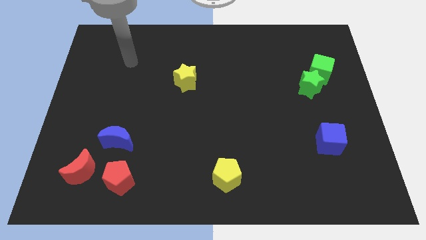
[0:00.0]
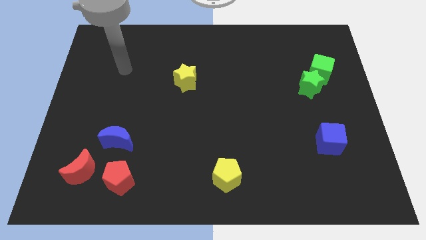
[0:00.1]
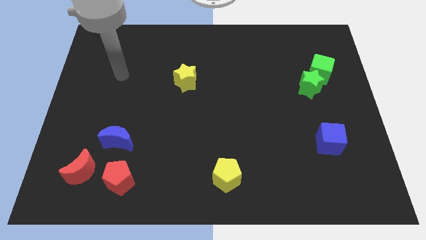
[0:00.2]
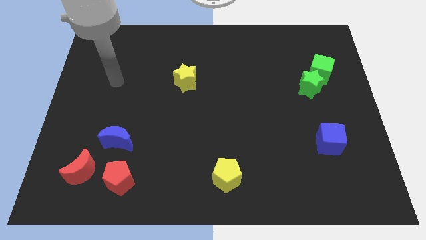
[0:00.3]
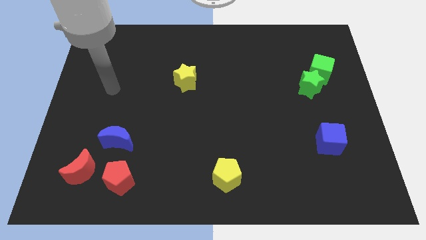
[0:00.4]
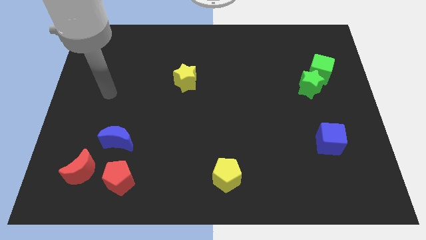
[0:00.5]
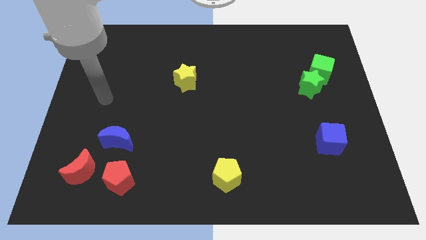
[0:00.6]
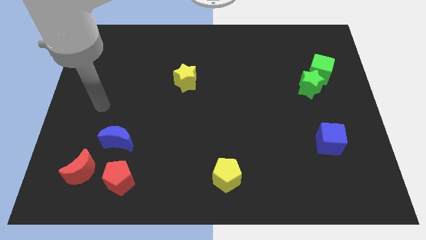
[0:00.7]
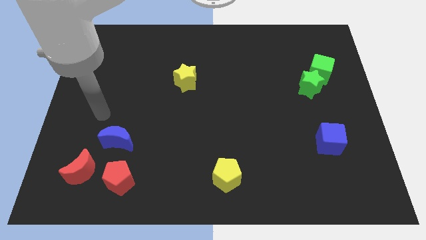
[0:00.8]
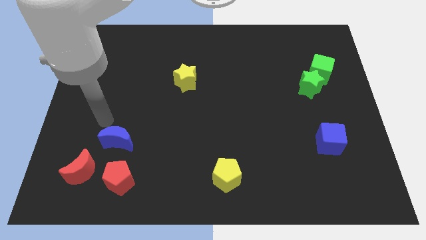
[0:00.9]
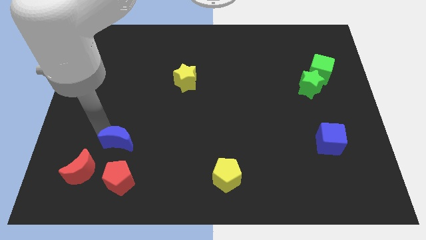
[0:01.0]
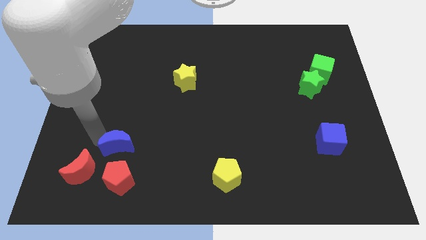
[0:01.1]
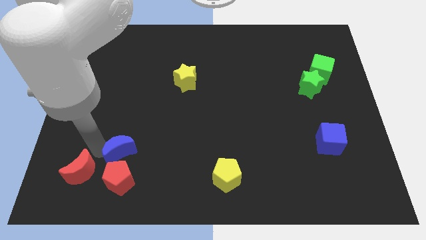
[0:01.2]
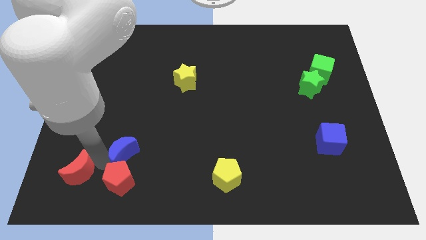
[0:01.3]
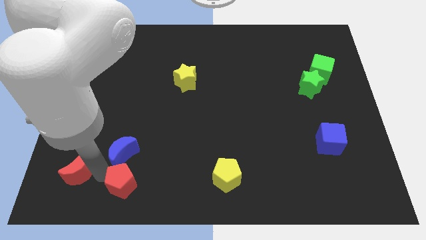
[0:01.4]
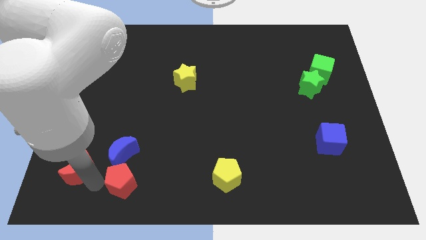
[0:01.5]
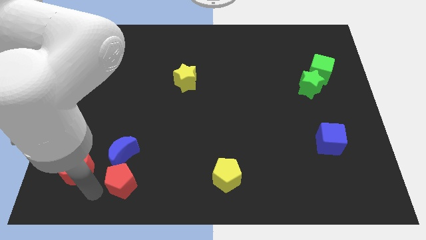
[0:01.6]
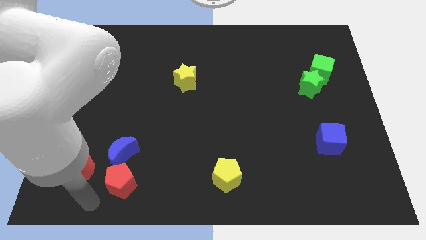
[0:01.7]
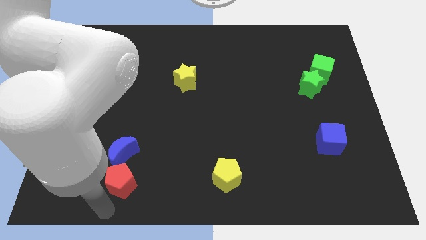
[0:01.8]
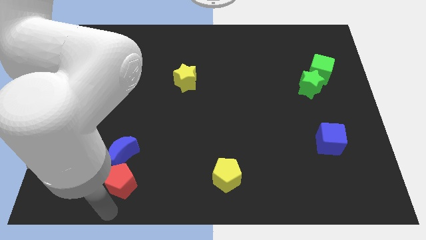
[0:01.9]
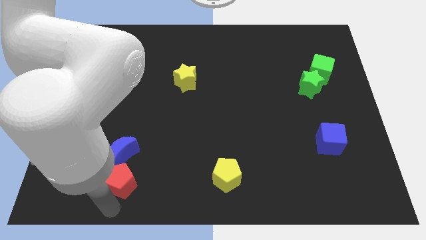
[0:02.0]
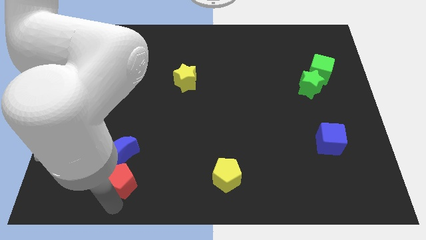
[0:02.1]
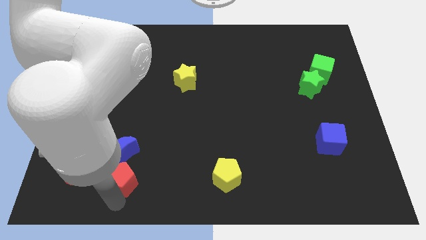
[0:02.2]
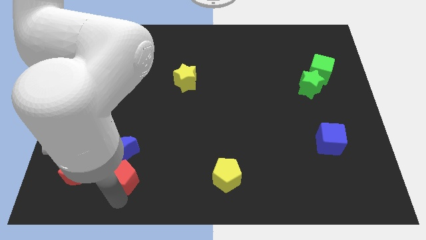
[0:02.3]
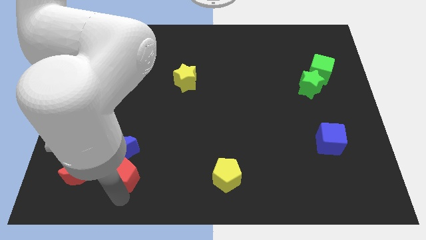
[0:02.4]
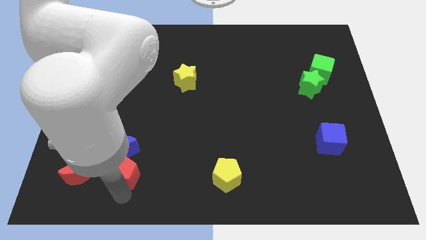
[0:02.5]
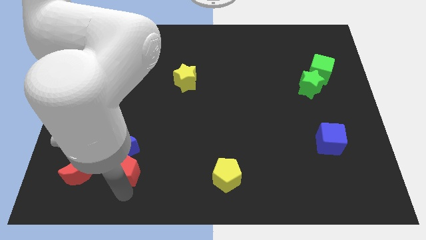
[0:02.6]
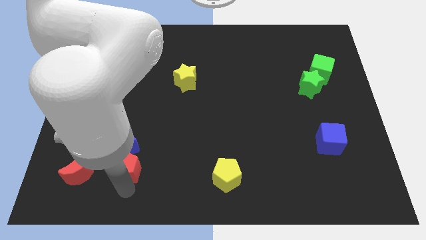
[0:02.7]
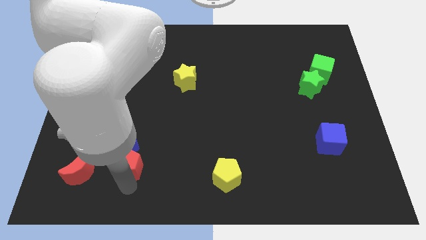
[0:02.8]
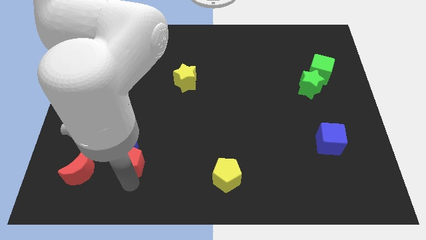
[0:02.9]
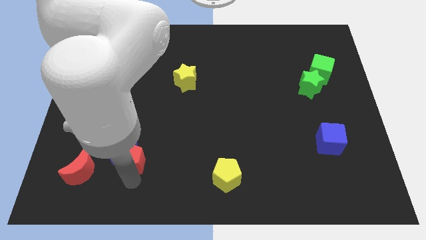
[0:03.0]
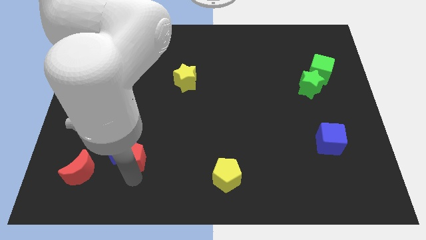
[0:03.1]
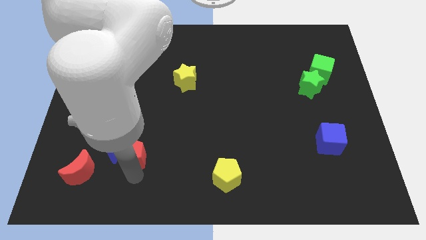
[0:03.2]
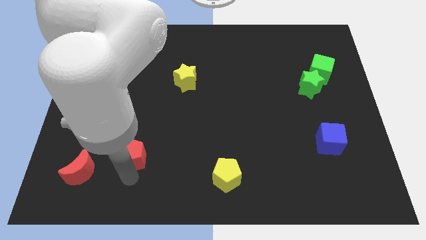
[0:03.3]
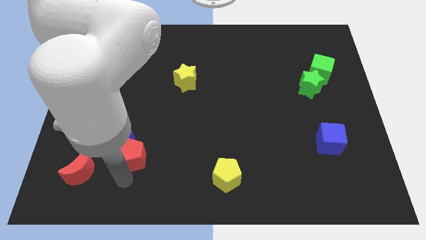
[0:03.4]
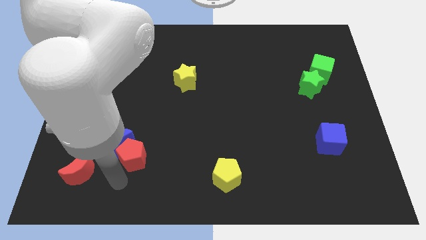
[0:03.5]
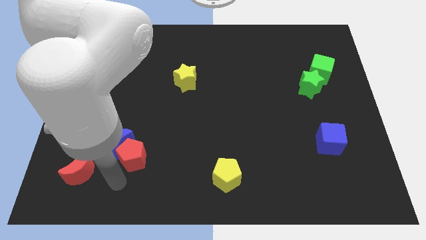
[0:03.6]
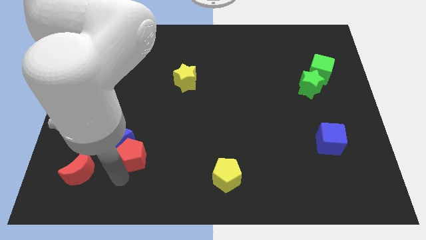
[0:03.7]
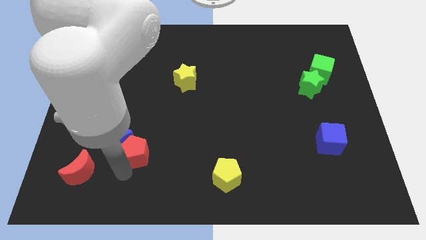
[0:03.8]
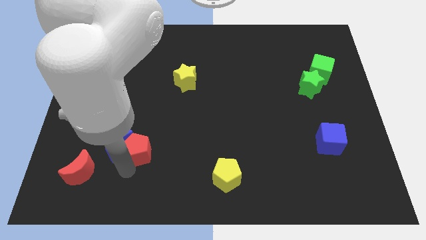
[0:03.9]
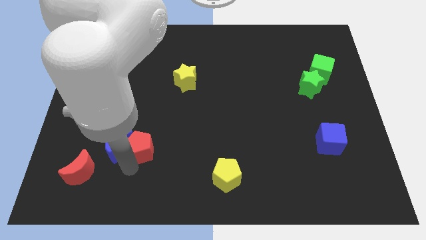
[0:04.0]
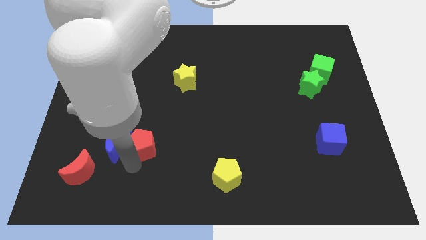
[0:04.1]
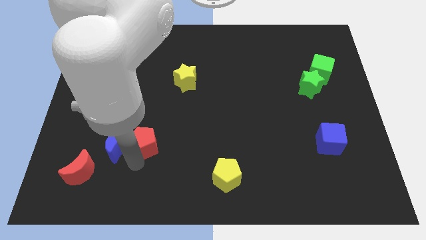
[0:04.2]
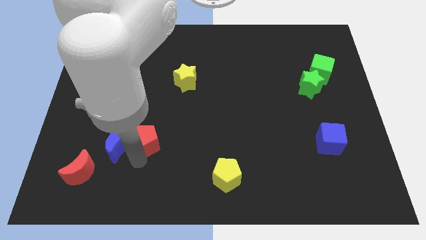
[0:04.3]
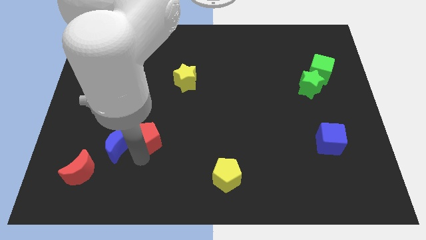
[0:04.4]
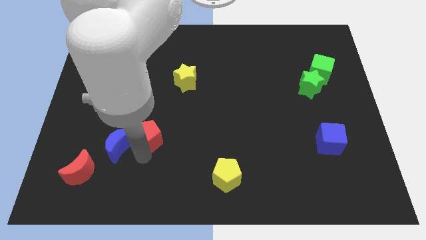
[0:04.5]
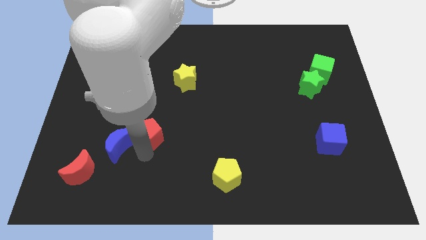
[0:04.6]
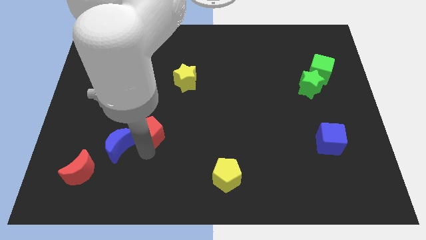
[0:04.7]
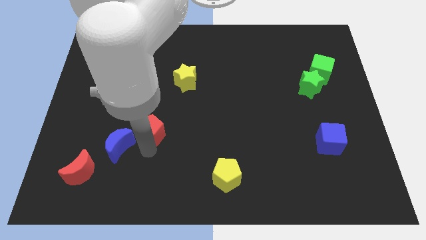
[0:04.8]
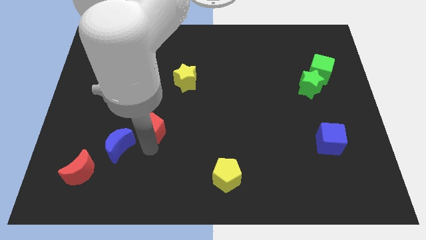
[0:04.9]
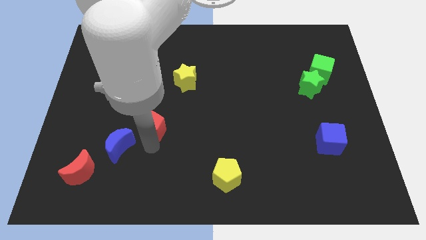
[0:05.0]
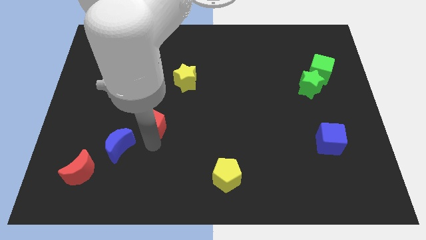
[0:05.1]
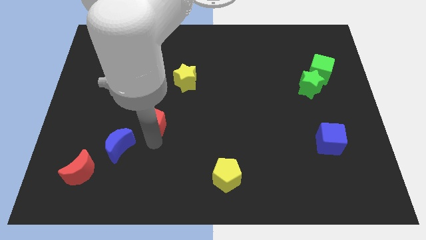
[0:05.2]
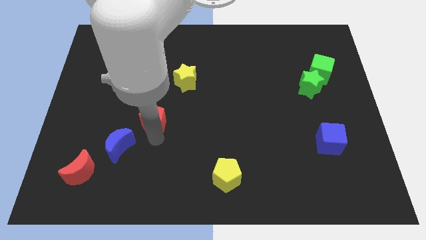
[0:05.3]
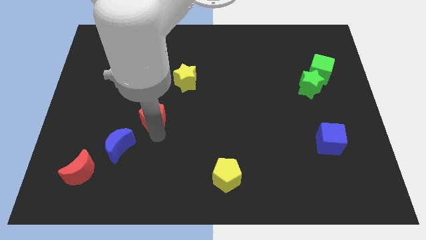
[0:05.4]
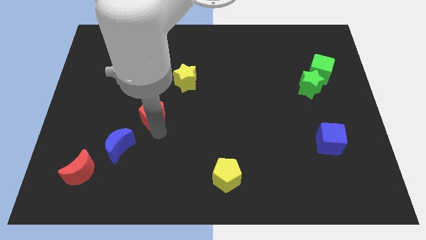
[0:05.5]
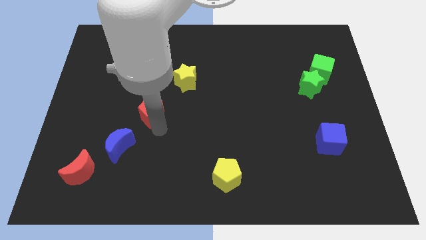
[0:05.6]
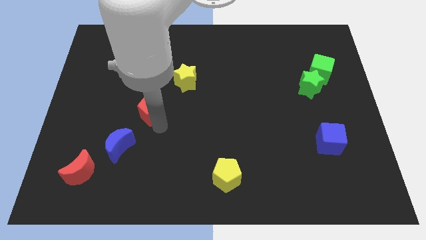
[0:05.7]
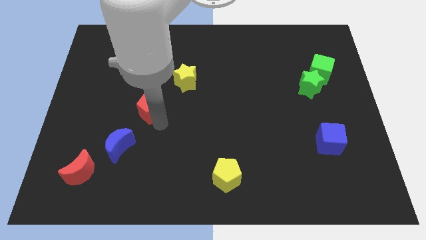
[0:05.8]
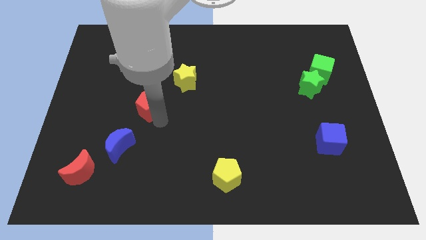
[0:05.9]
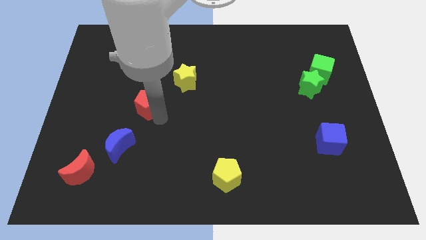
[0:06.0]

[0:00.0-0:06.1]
move the red pentagon above the blue moon

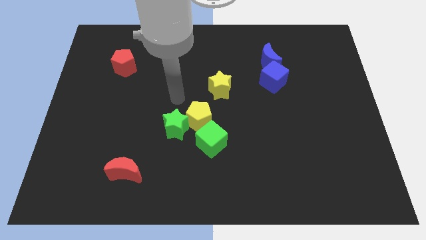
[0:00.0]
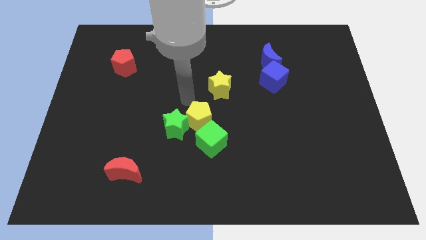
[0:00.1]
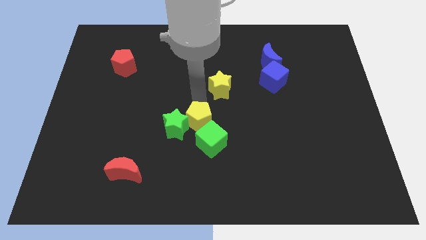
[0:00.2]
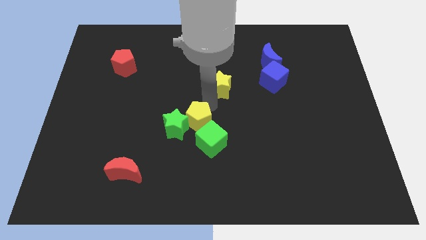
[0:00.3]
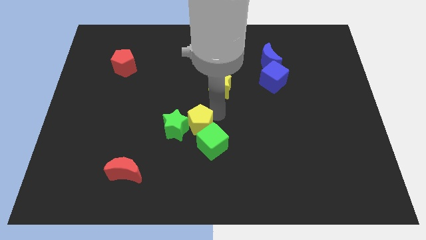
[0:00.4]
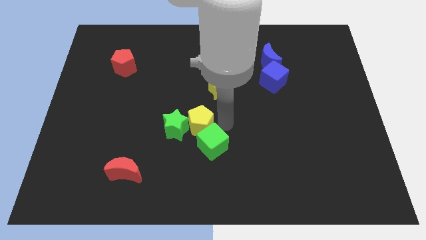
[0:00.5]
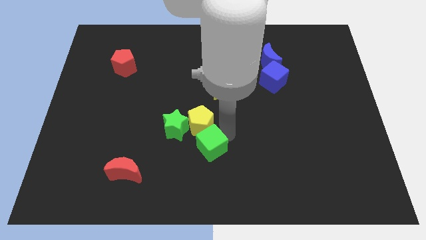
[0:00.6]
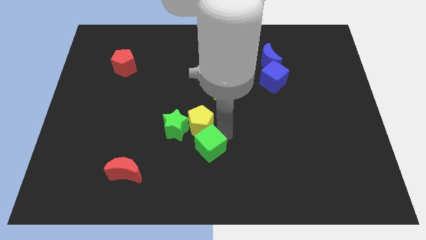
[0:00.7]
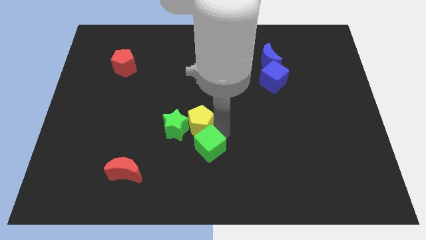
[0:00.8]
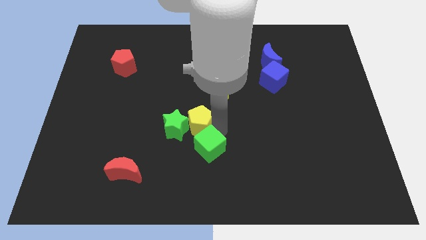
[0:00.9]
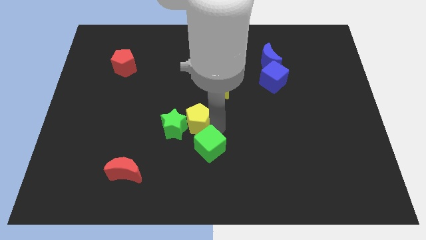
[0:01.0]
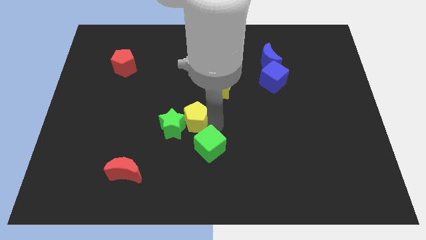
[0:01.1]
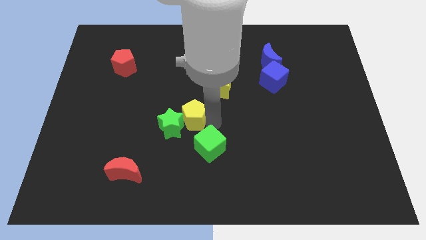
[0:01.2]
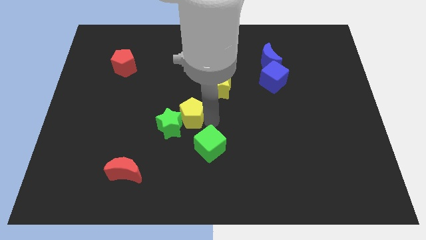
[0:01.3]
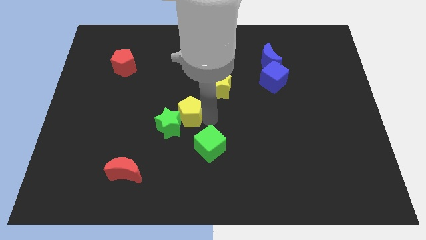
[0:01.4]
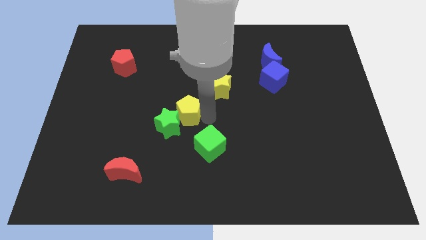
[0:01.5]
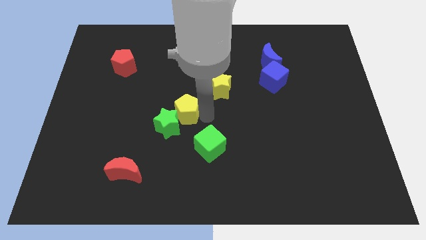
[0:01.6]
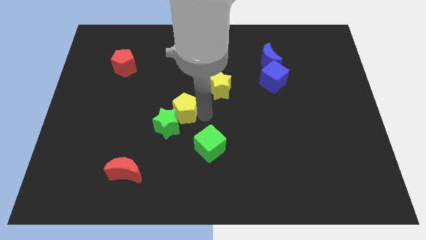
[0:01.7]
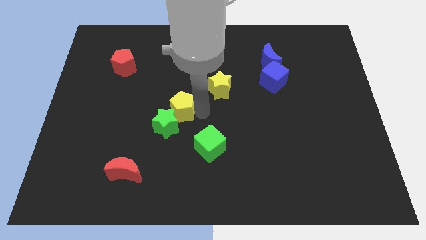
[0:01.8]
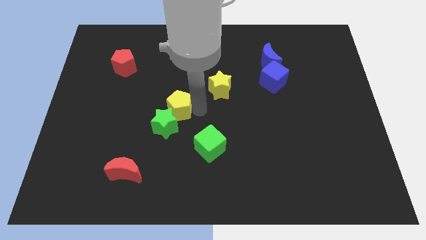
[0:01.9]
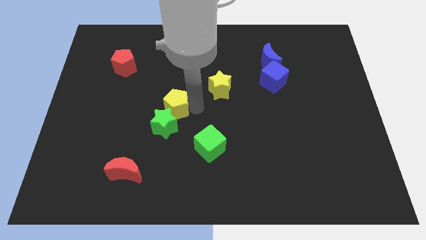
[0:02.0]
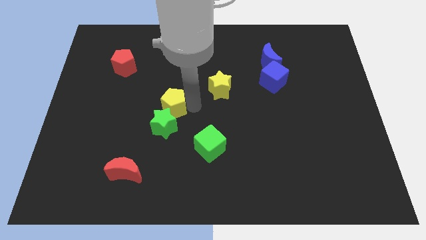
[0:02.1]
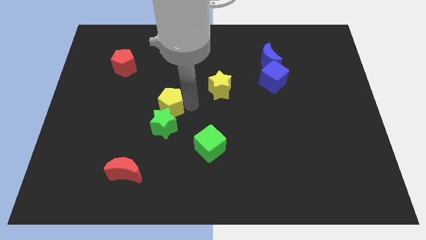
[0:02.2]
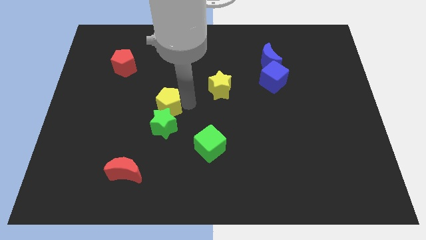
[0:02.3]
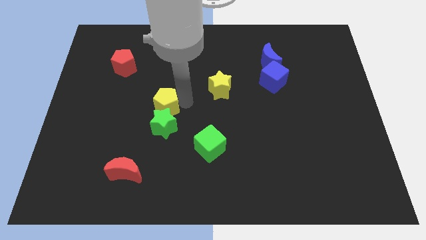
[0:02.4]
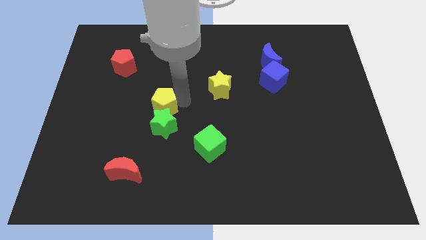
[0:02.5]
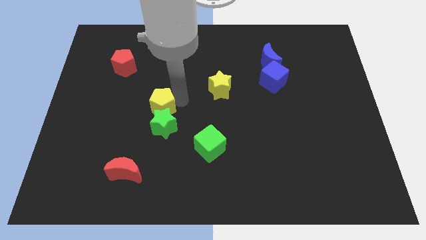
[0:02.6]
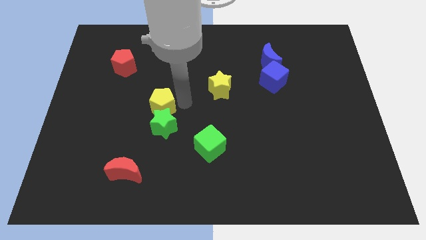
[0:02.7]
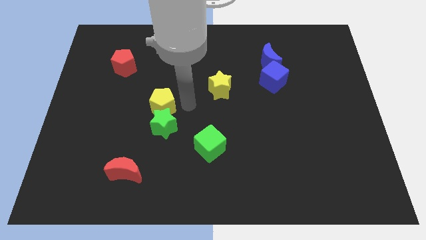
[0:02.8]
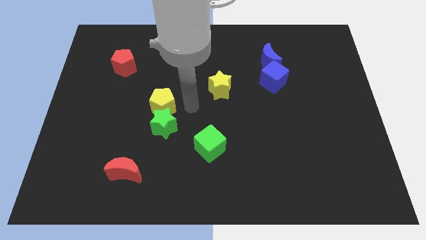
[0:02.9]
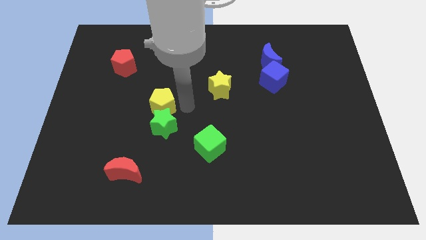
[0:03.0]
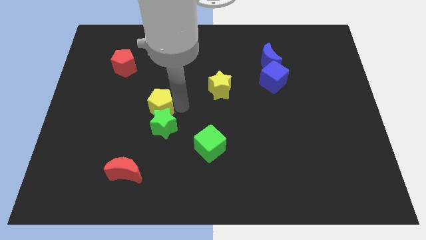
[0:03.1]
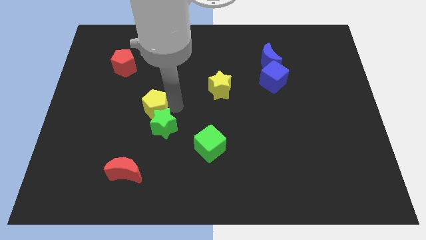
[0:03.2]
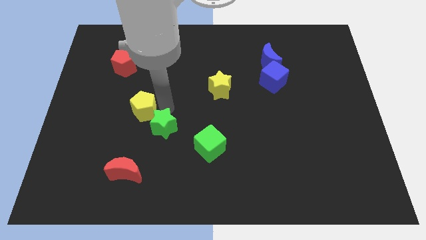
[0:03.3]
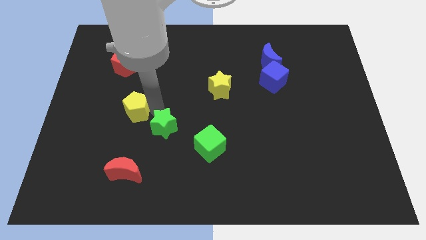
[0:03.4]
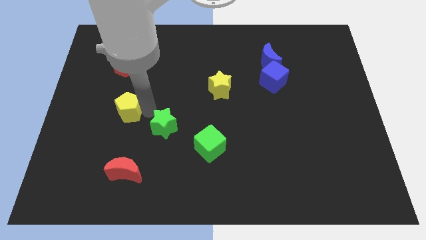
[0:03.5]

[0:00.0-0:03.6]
push the yellow pentagon to the bottom side of the red pentagon
